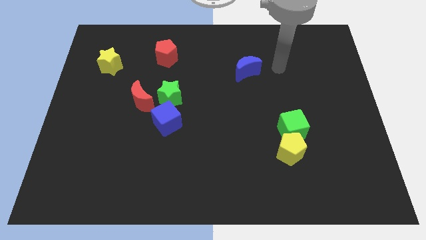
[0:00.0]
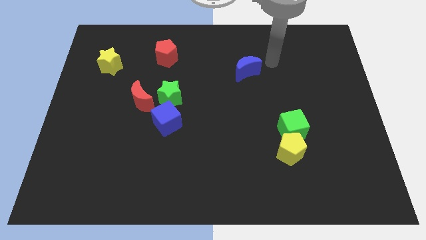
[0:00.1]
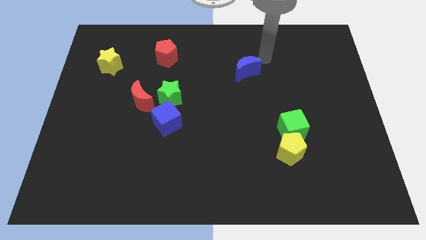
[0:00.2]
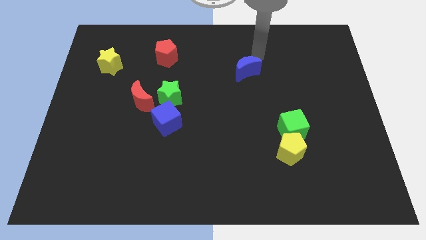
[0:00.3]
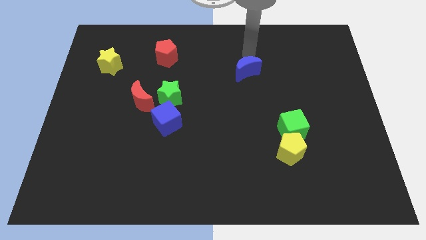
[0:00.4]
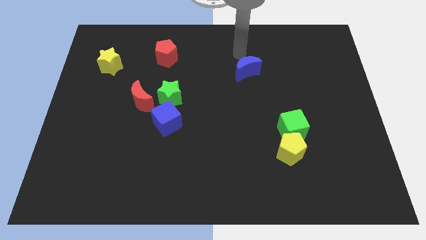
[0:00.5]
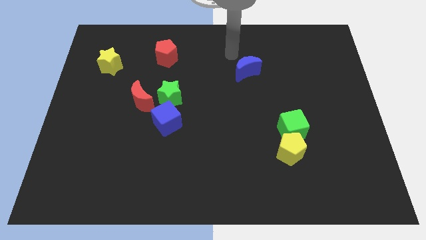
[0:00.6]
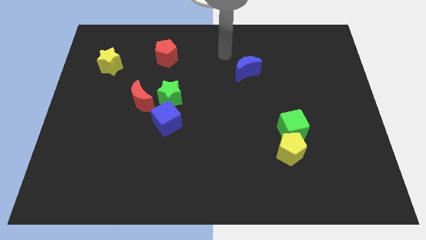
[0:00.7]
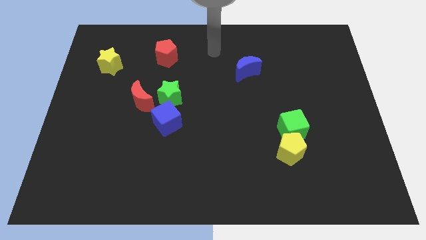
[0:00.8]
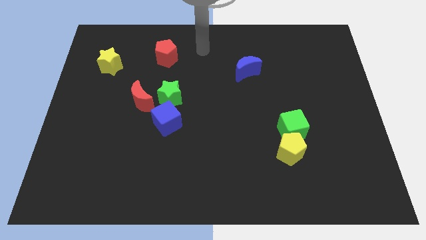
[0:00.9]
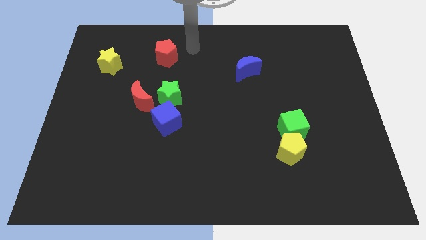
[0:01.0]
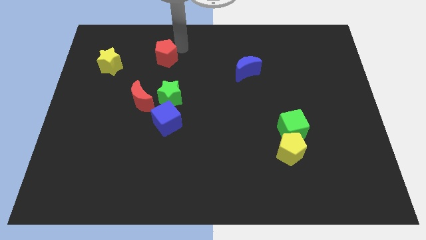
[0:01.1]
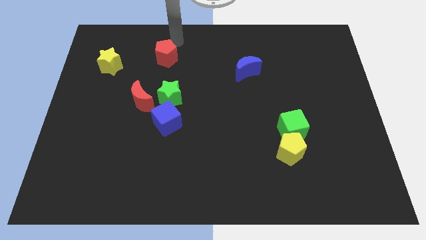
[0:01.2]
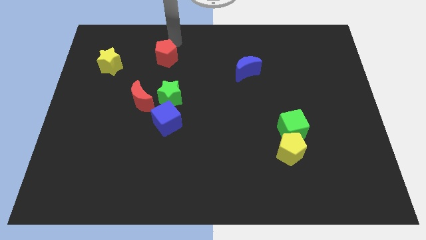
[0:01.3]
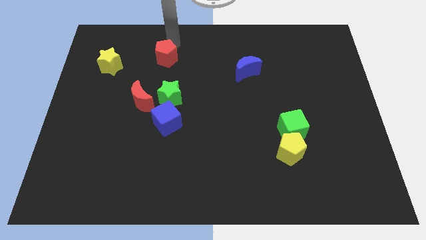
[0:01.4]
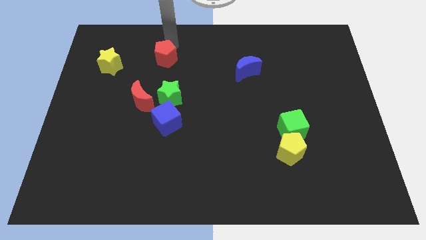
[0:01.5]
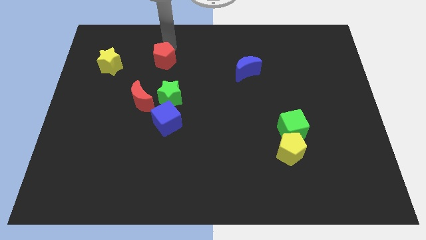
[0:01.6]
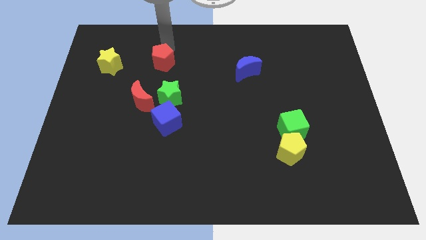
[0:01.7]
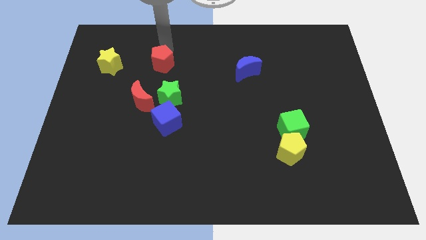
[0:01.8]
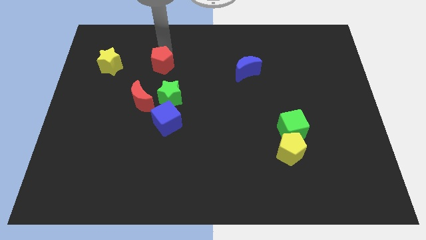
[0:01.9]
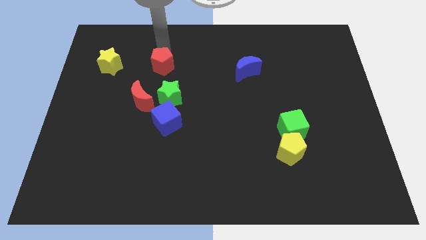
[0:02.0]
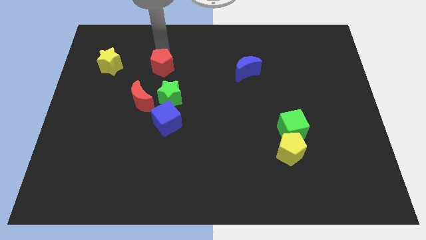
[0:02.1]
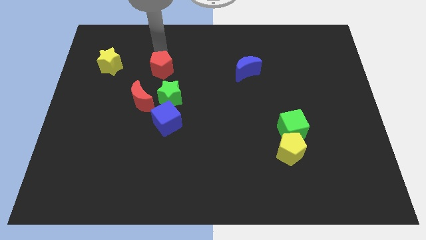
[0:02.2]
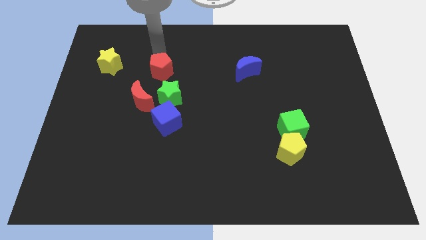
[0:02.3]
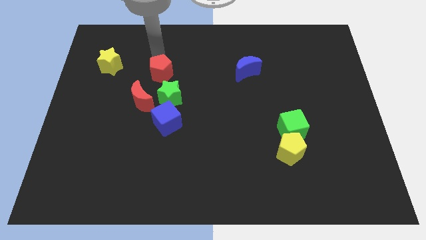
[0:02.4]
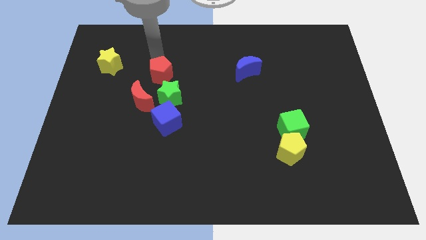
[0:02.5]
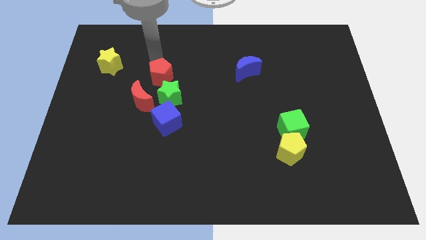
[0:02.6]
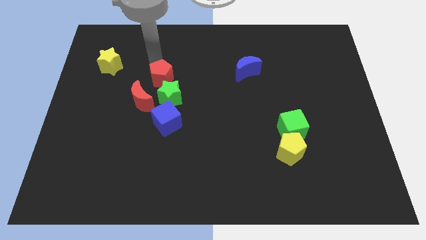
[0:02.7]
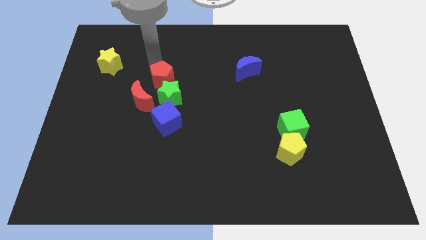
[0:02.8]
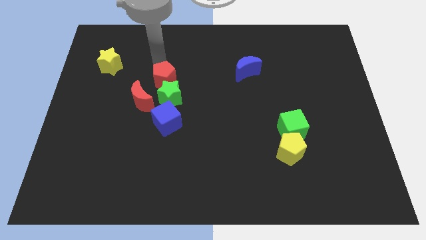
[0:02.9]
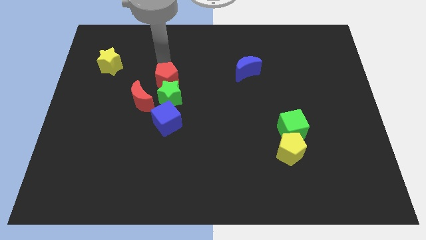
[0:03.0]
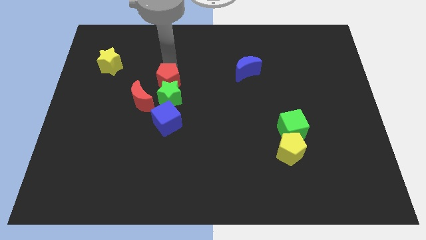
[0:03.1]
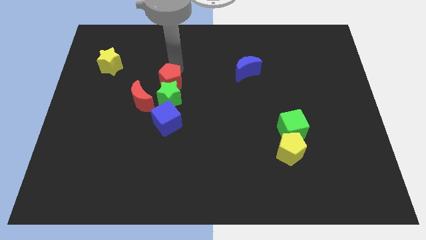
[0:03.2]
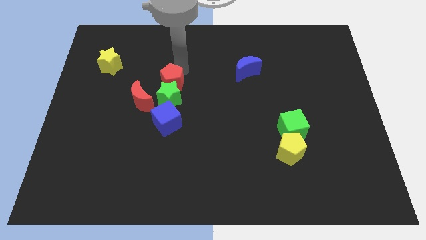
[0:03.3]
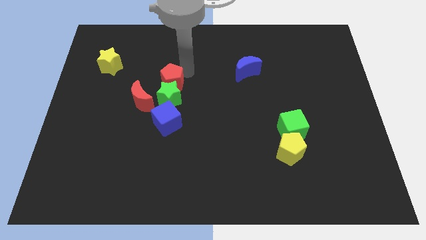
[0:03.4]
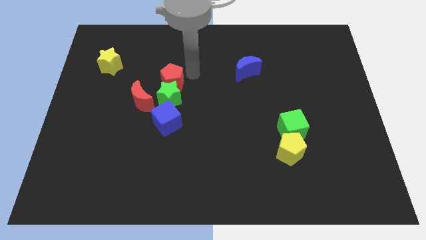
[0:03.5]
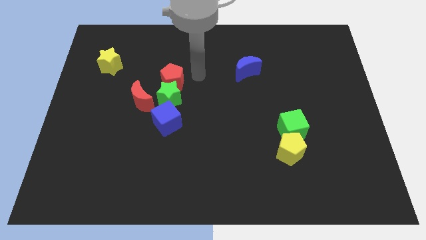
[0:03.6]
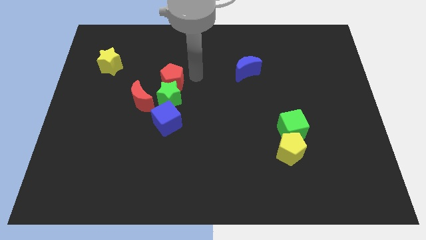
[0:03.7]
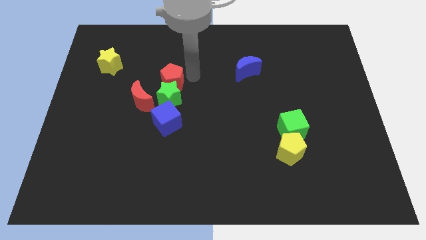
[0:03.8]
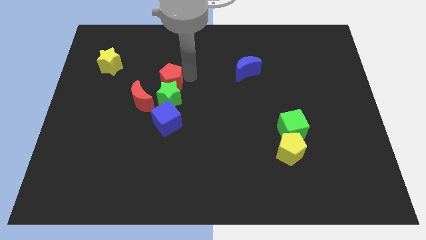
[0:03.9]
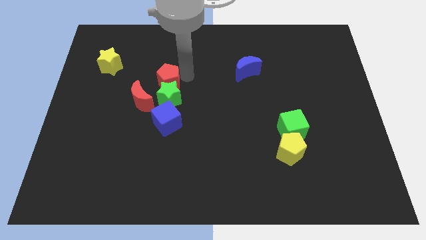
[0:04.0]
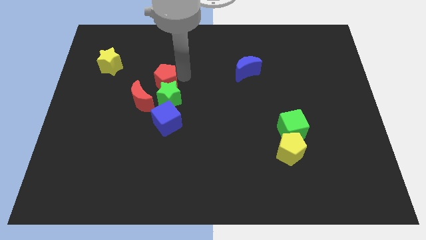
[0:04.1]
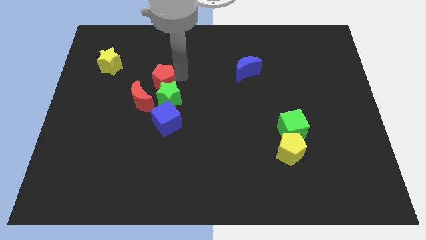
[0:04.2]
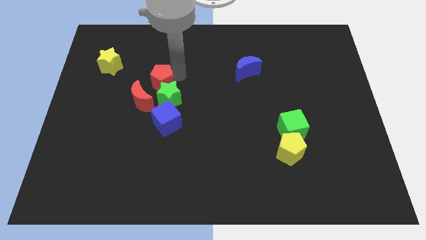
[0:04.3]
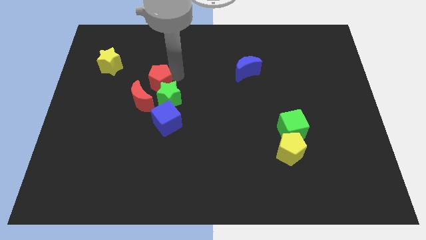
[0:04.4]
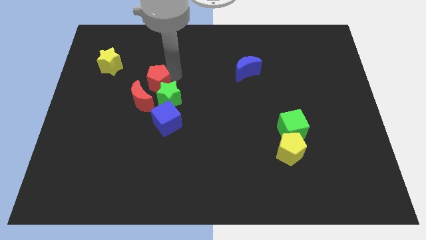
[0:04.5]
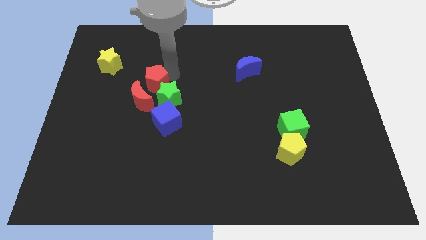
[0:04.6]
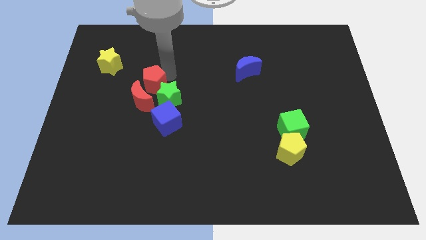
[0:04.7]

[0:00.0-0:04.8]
slide the red pentagon next to the red moon

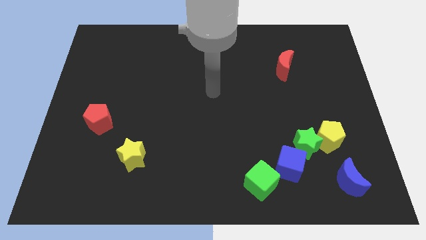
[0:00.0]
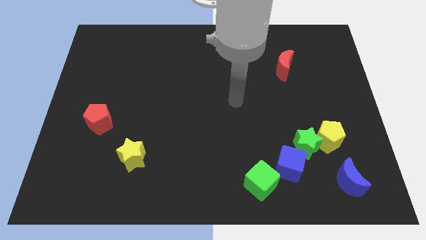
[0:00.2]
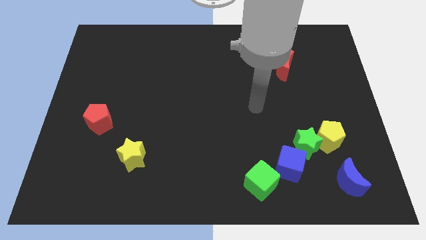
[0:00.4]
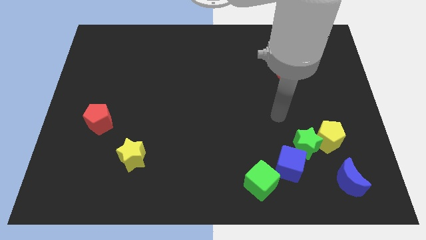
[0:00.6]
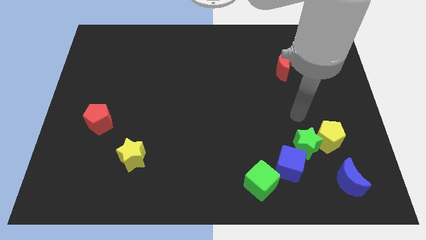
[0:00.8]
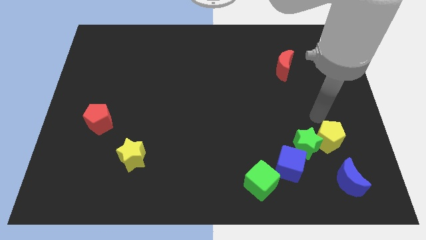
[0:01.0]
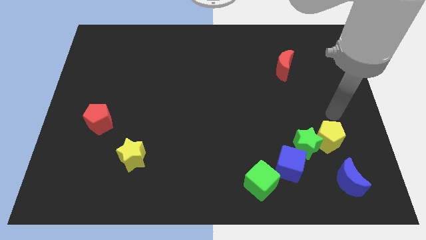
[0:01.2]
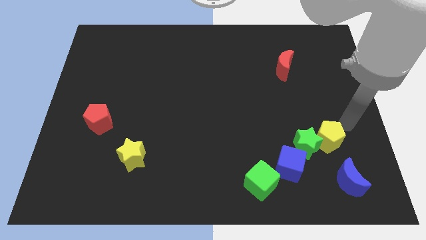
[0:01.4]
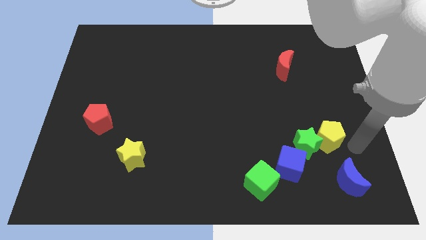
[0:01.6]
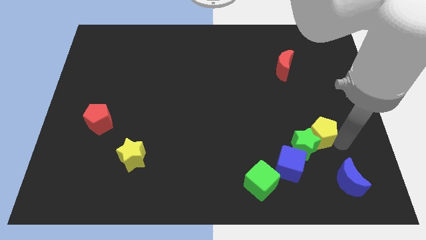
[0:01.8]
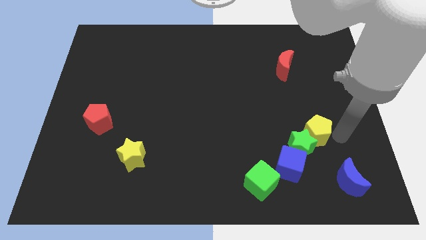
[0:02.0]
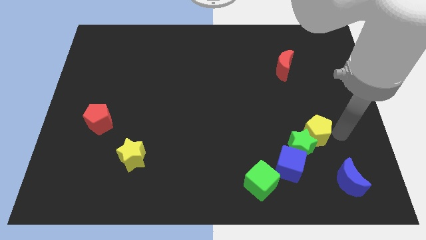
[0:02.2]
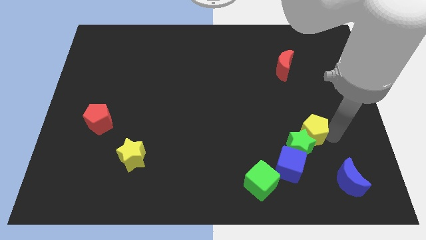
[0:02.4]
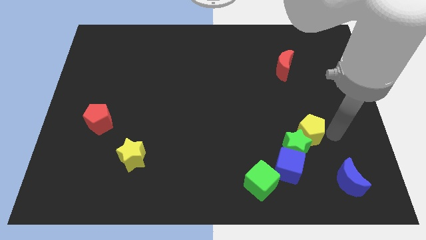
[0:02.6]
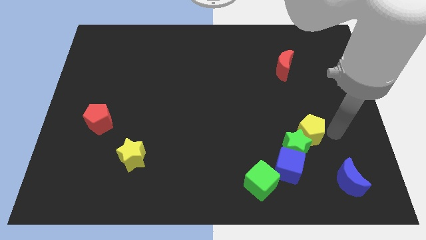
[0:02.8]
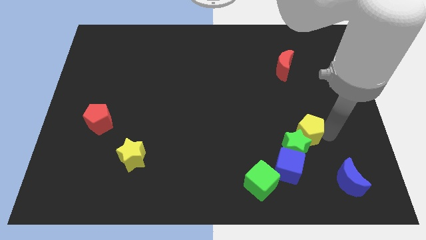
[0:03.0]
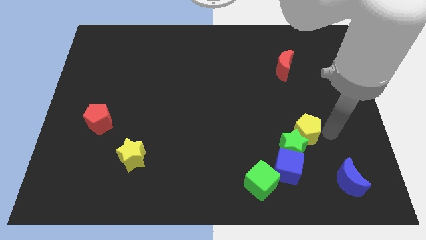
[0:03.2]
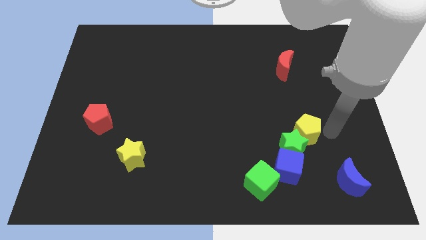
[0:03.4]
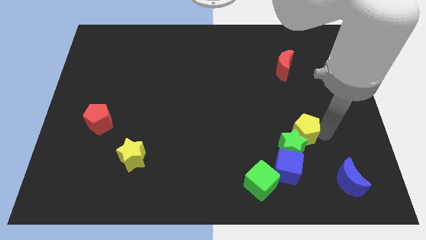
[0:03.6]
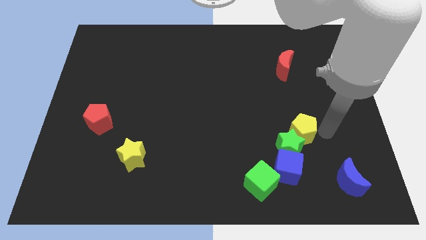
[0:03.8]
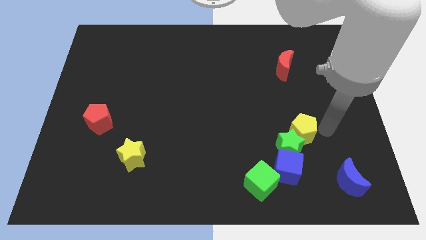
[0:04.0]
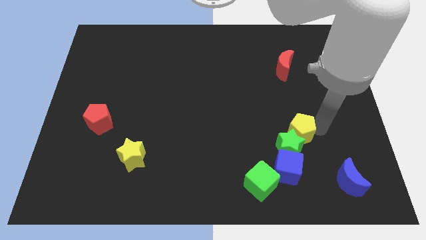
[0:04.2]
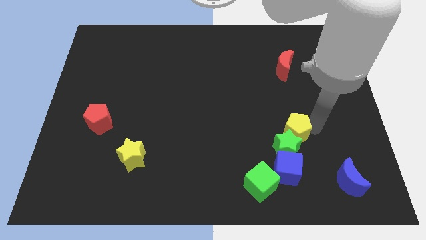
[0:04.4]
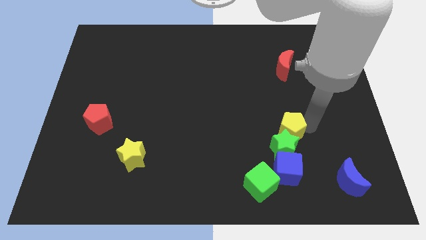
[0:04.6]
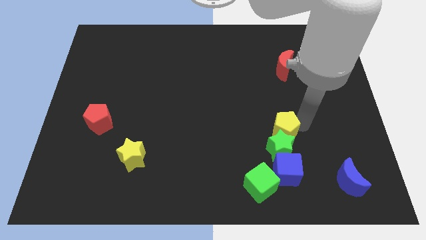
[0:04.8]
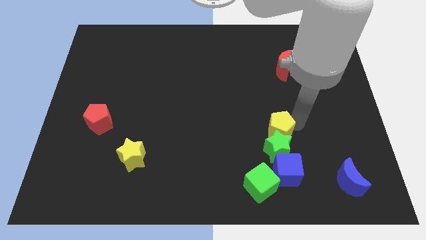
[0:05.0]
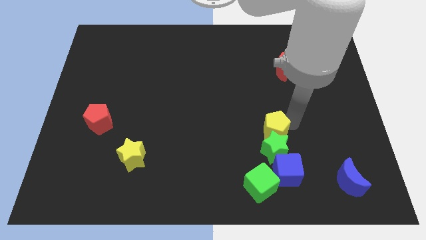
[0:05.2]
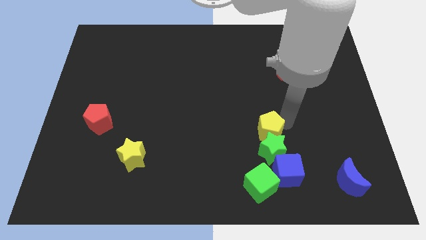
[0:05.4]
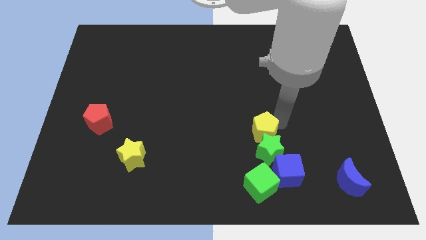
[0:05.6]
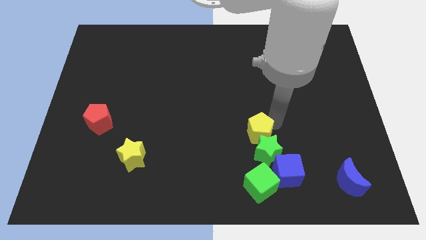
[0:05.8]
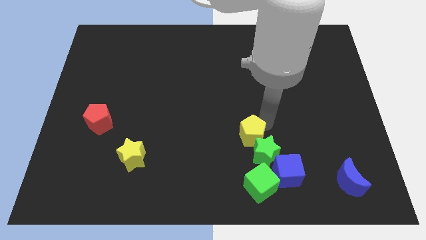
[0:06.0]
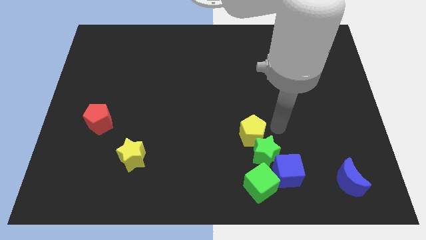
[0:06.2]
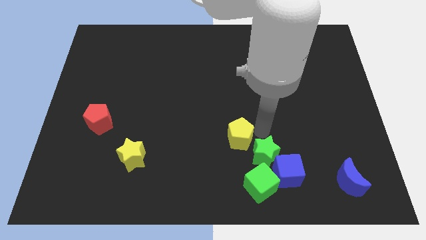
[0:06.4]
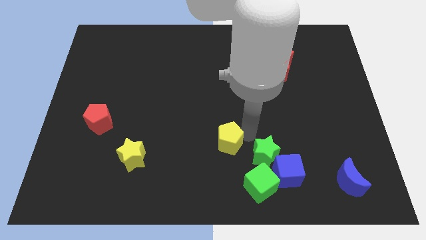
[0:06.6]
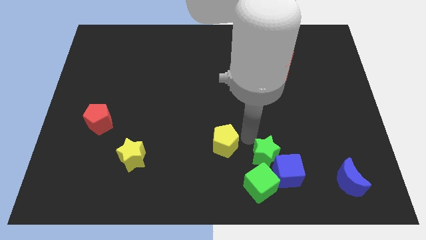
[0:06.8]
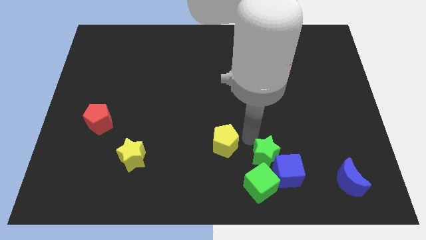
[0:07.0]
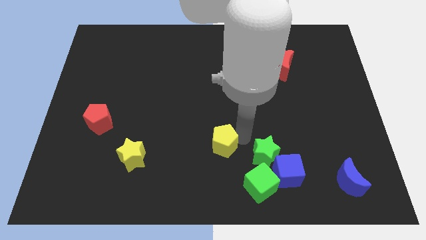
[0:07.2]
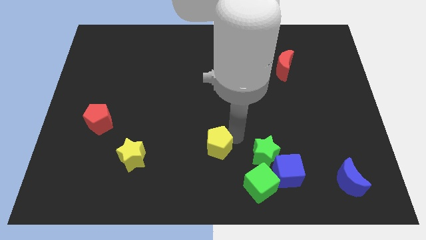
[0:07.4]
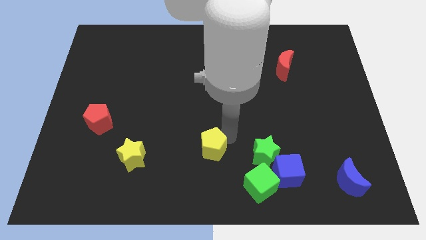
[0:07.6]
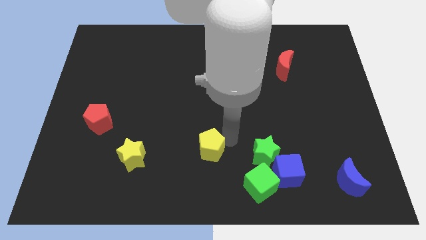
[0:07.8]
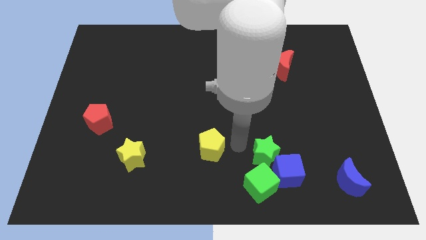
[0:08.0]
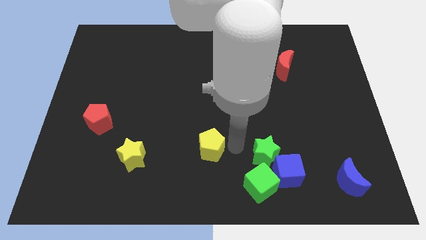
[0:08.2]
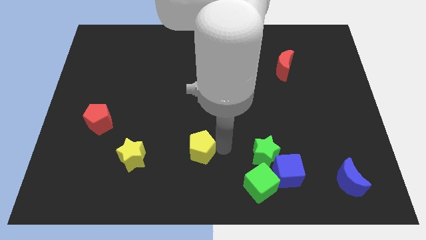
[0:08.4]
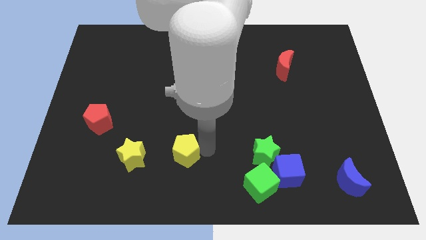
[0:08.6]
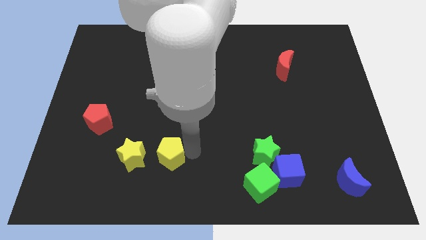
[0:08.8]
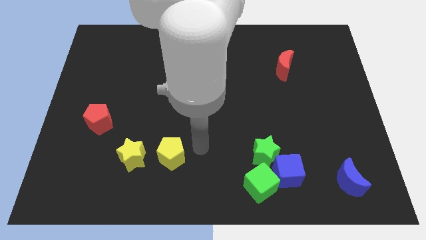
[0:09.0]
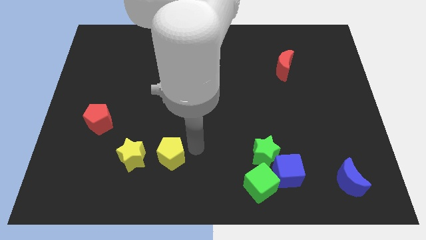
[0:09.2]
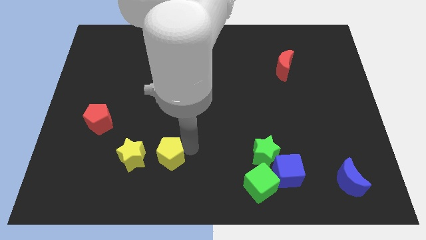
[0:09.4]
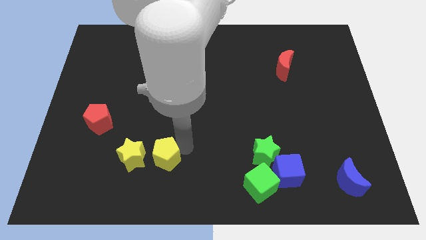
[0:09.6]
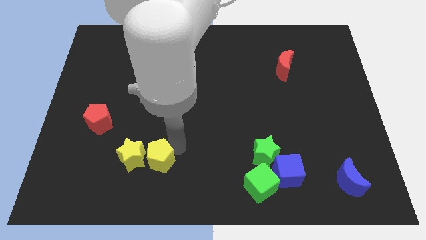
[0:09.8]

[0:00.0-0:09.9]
slide the yellow pentagon next to the yellow star
